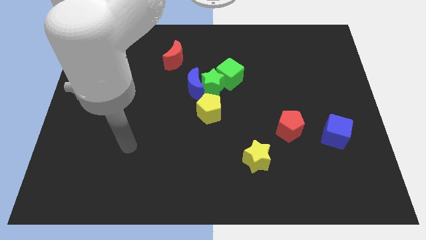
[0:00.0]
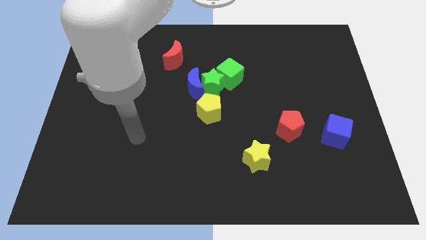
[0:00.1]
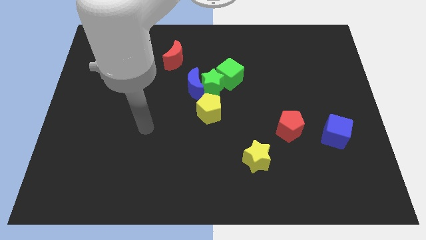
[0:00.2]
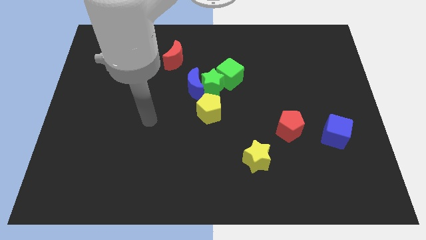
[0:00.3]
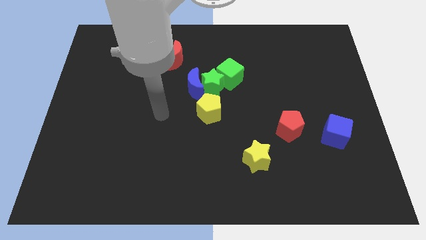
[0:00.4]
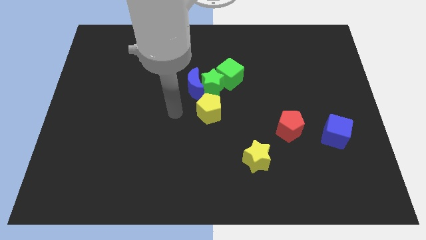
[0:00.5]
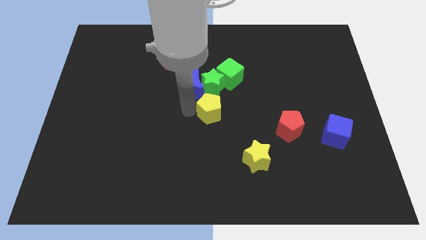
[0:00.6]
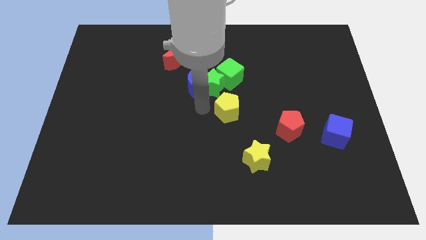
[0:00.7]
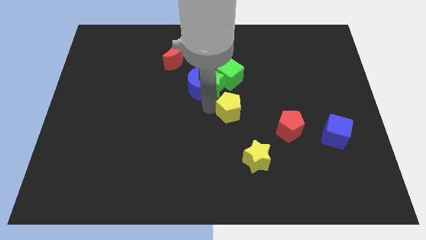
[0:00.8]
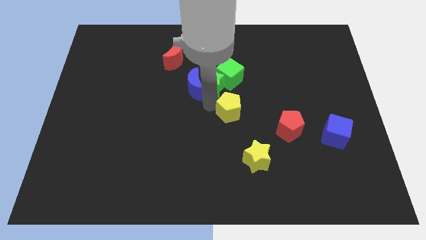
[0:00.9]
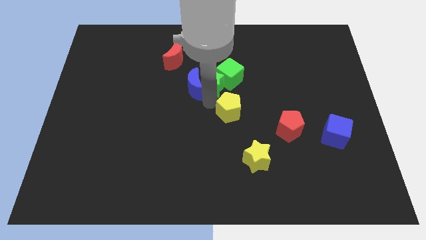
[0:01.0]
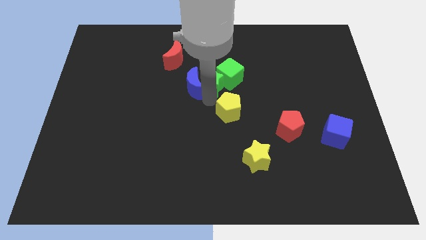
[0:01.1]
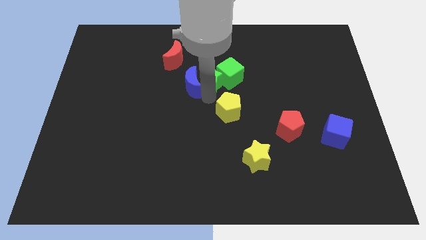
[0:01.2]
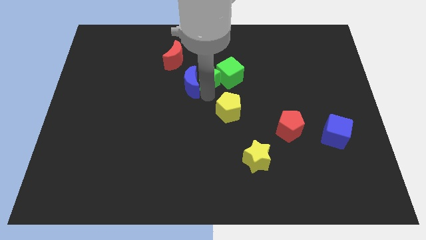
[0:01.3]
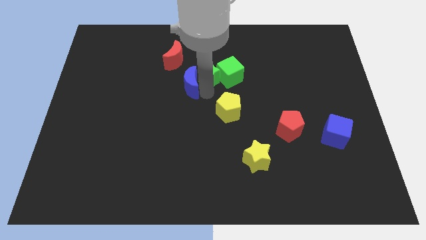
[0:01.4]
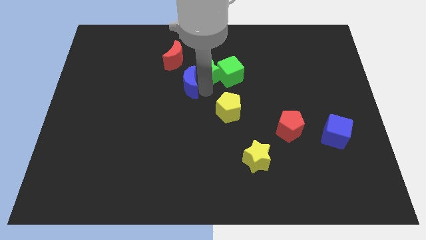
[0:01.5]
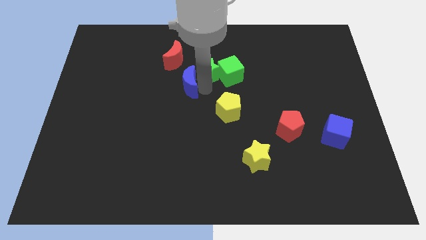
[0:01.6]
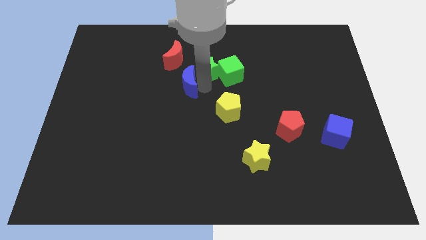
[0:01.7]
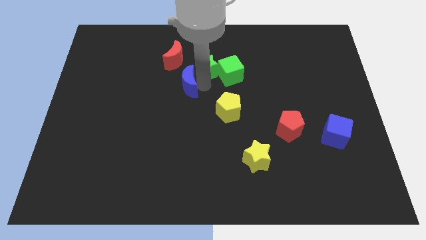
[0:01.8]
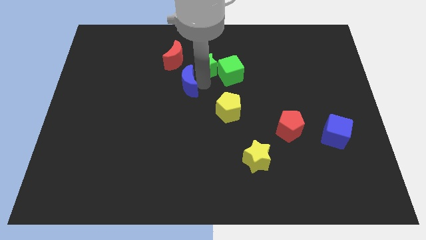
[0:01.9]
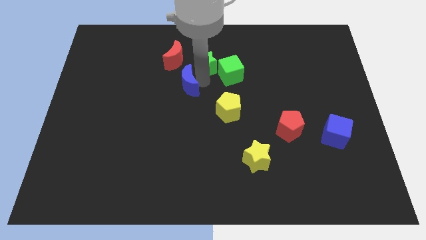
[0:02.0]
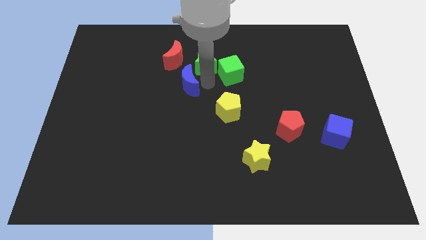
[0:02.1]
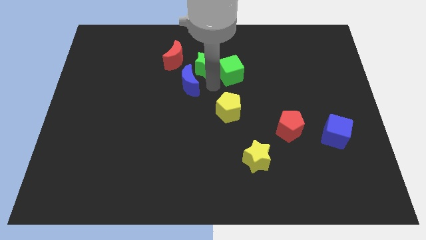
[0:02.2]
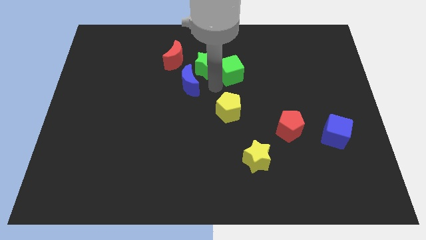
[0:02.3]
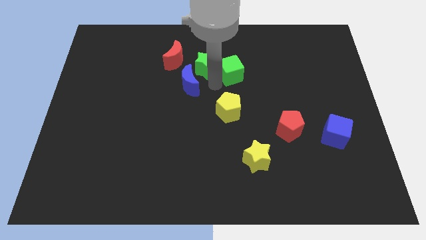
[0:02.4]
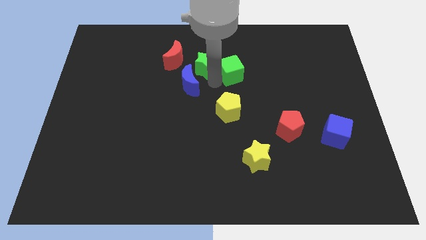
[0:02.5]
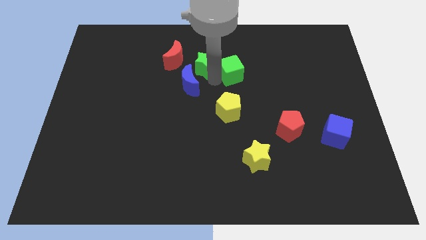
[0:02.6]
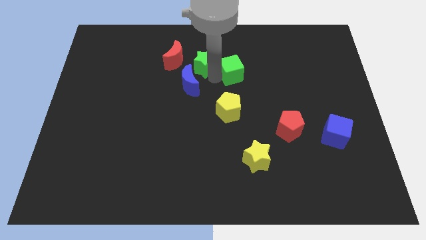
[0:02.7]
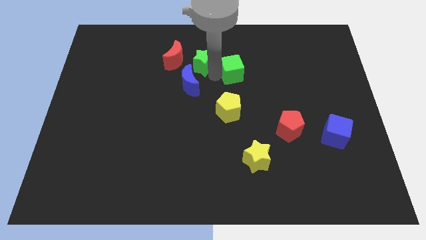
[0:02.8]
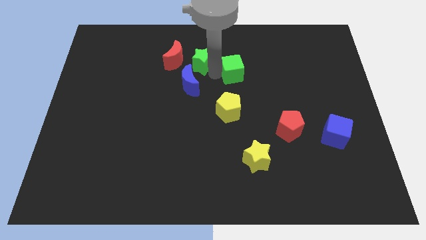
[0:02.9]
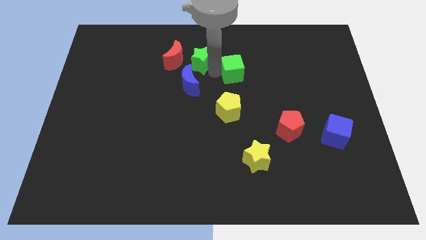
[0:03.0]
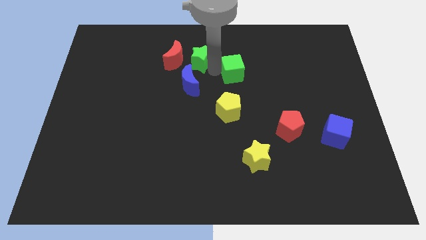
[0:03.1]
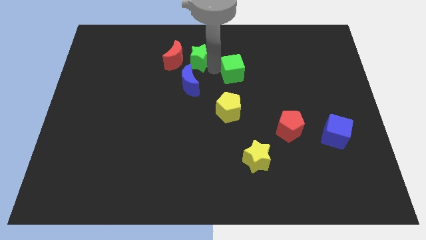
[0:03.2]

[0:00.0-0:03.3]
move the green star away from the blue moon, green cube, and yellow pentagon

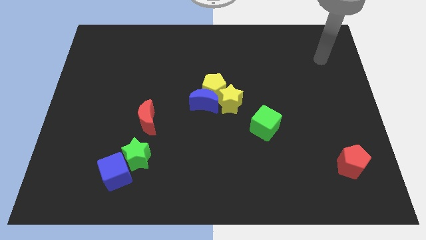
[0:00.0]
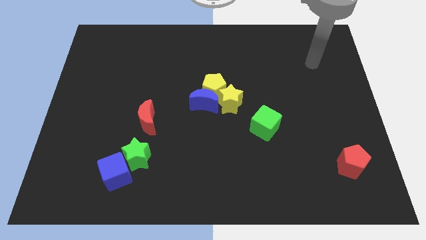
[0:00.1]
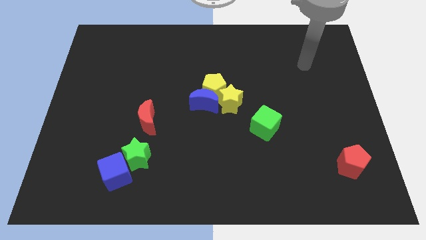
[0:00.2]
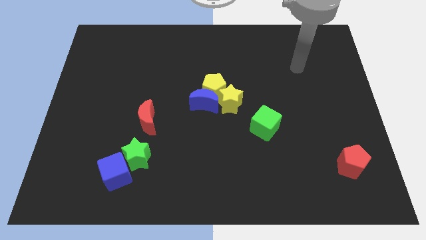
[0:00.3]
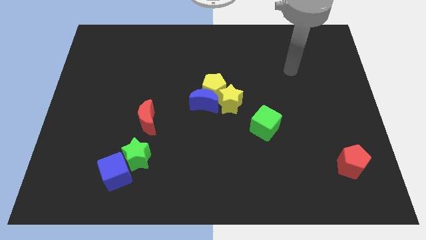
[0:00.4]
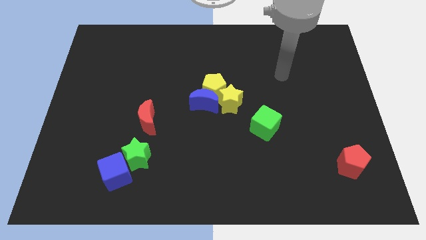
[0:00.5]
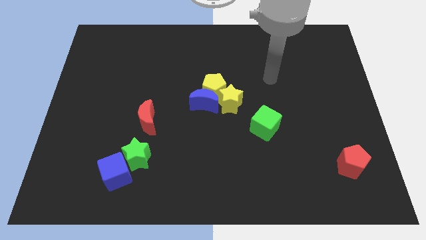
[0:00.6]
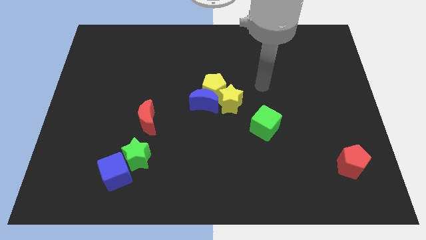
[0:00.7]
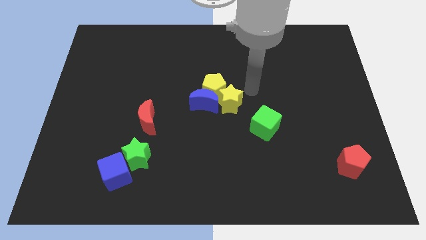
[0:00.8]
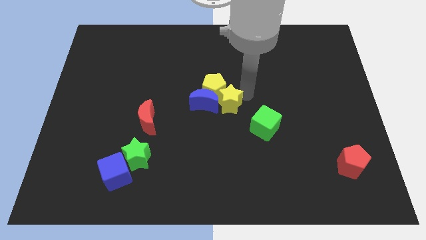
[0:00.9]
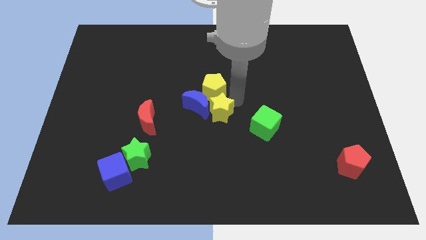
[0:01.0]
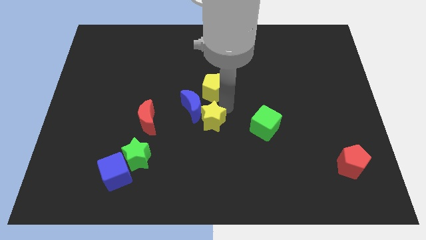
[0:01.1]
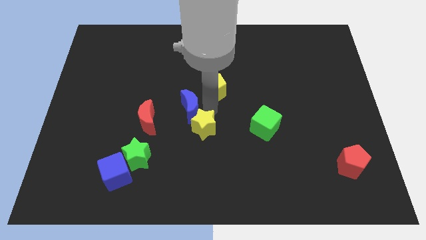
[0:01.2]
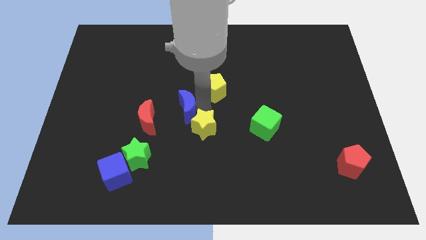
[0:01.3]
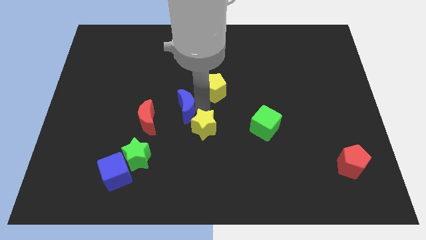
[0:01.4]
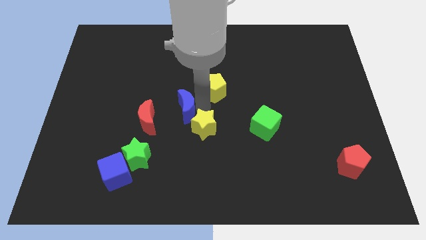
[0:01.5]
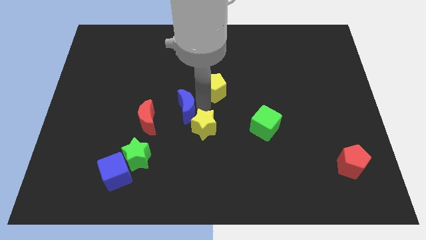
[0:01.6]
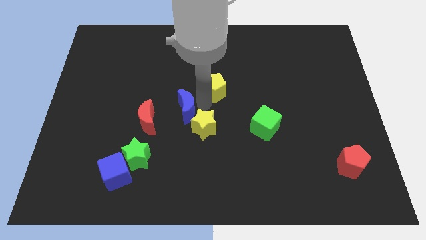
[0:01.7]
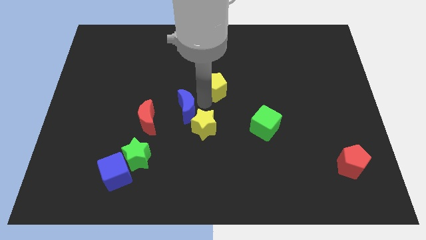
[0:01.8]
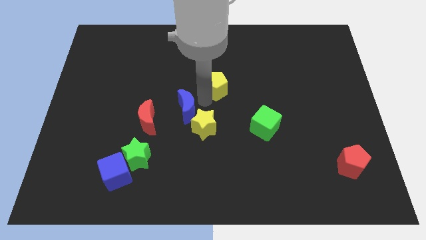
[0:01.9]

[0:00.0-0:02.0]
separate the yellow pentagon from the blue moon and yellow star

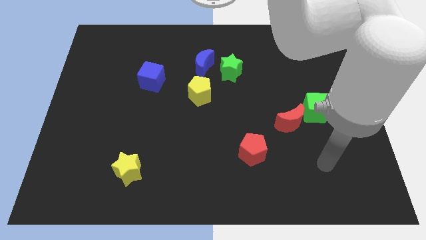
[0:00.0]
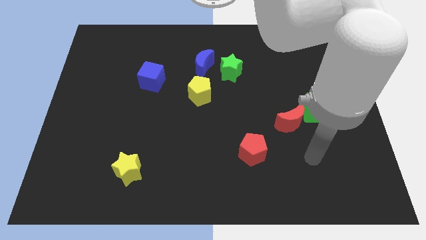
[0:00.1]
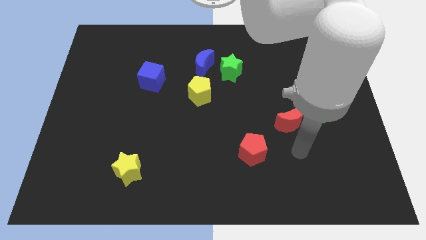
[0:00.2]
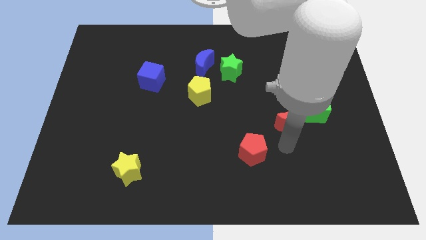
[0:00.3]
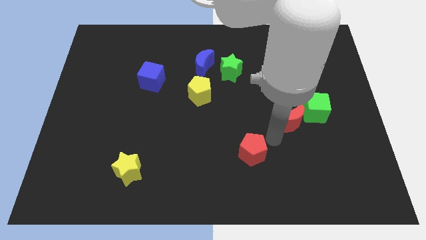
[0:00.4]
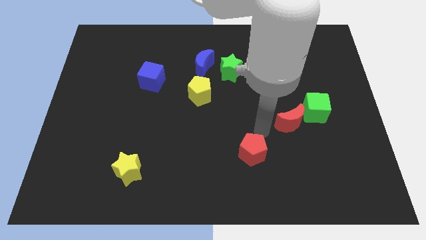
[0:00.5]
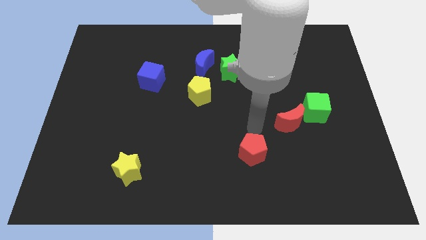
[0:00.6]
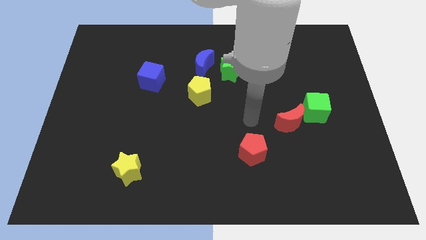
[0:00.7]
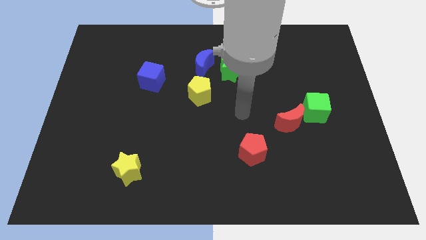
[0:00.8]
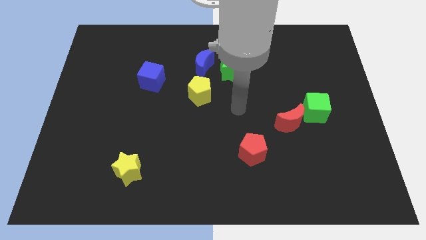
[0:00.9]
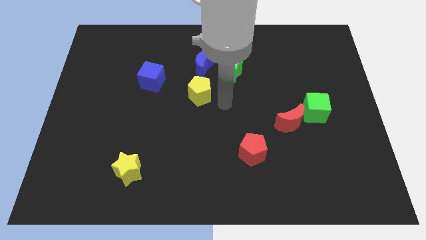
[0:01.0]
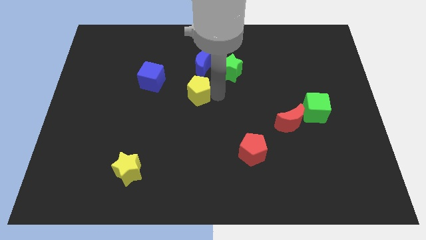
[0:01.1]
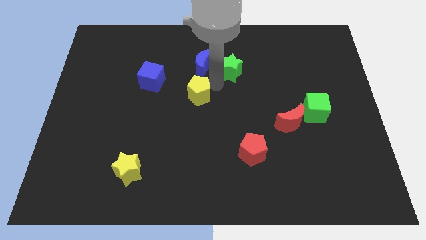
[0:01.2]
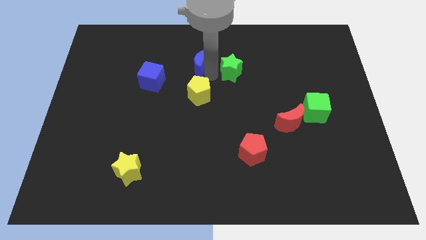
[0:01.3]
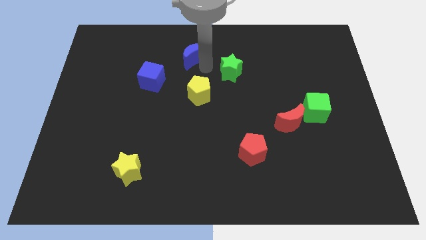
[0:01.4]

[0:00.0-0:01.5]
separate the green star from the blue moon

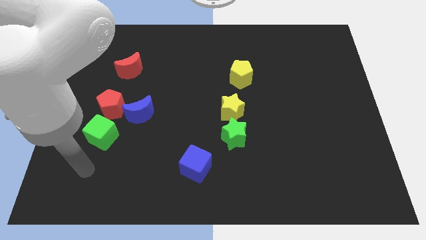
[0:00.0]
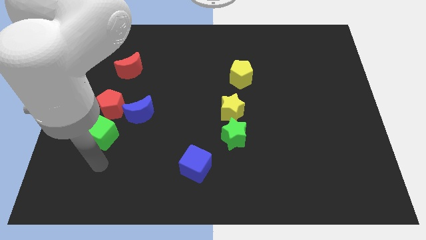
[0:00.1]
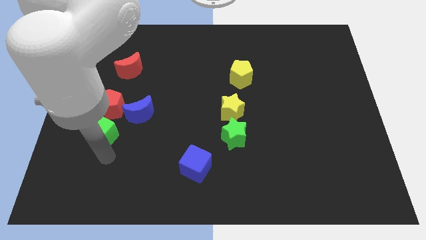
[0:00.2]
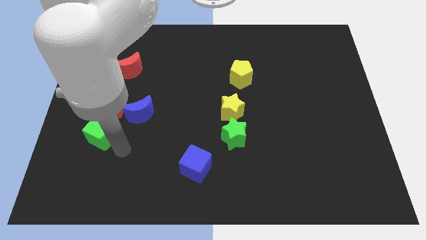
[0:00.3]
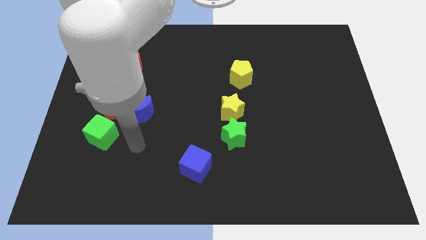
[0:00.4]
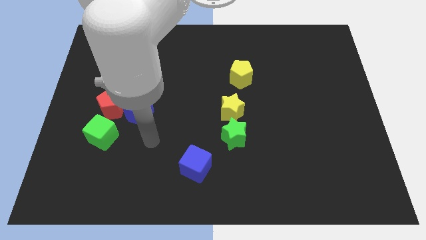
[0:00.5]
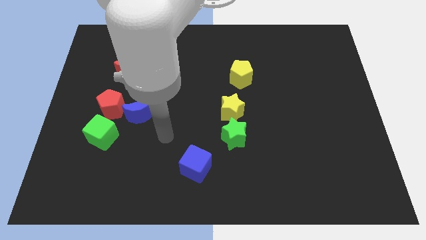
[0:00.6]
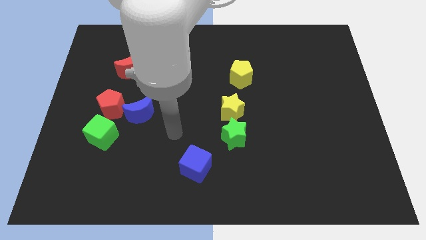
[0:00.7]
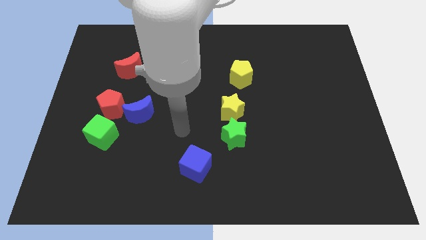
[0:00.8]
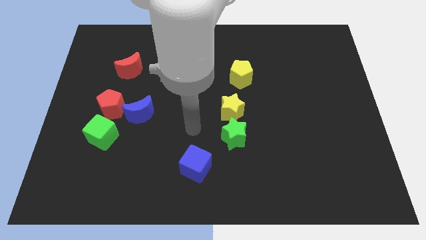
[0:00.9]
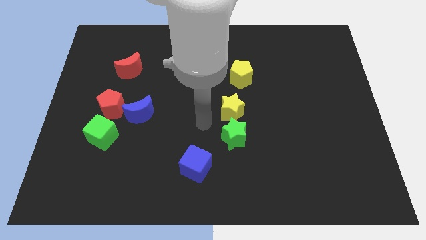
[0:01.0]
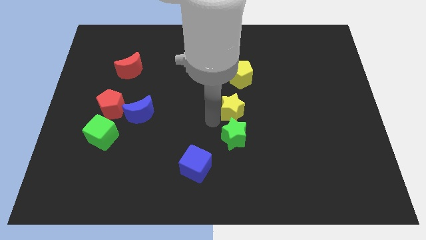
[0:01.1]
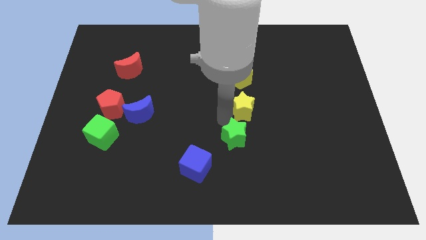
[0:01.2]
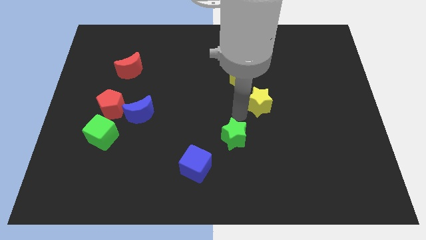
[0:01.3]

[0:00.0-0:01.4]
move the green star away from the yellow star

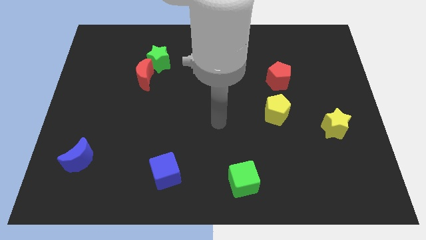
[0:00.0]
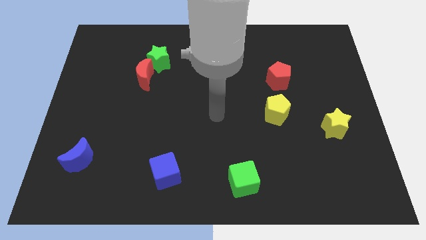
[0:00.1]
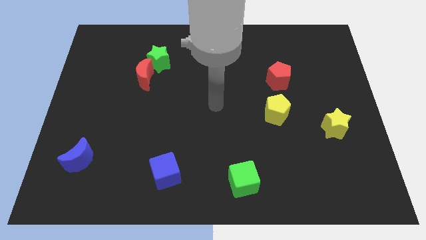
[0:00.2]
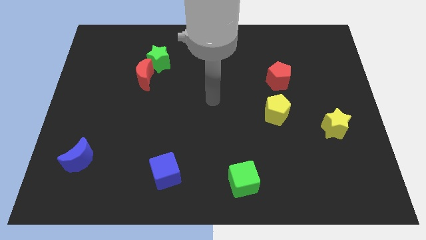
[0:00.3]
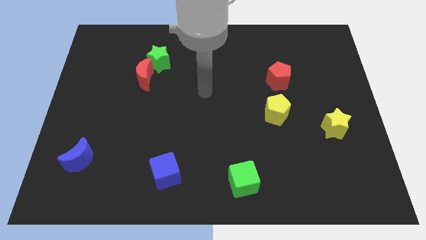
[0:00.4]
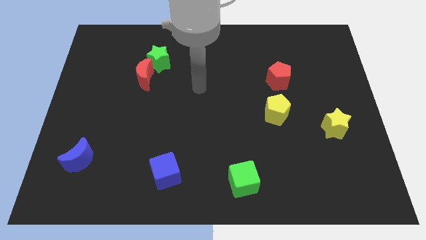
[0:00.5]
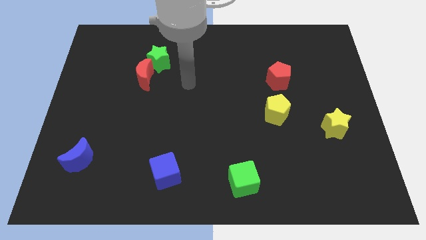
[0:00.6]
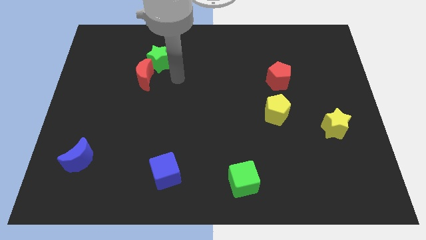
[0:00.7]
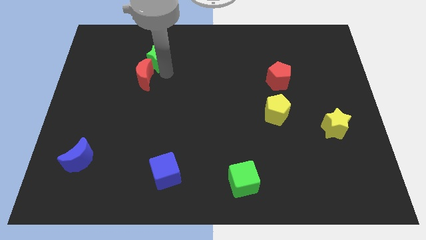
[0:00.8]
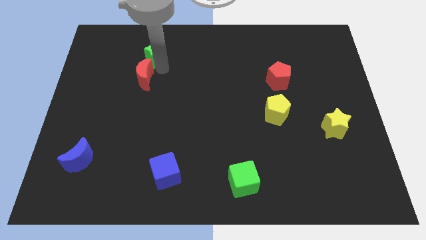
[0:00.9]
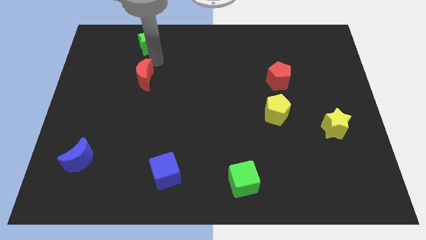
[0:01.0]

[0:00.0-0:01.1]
move the red moon away from the green star
